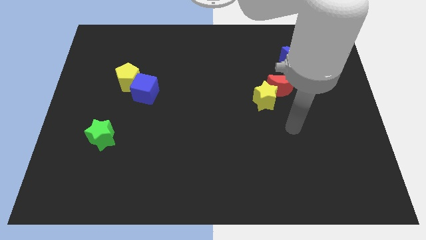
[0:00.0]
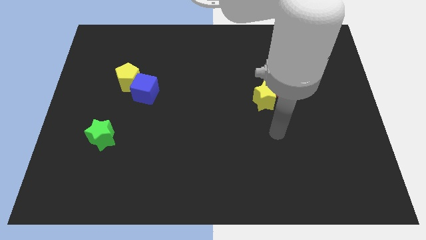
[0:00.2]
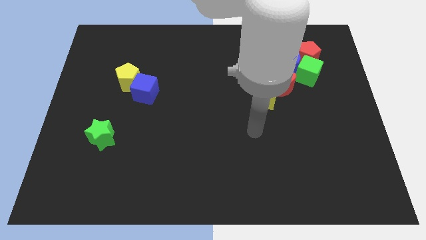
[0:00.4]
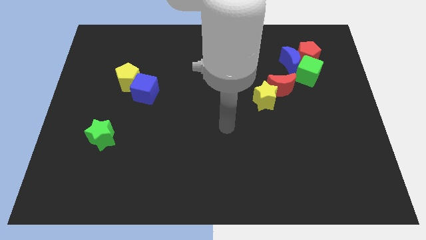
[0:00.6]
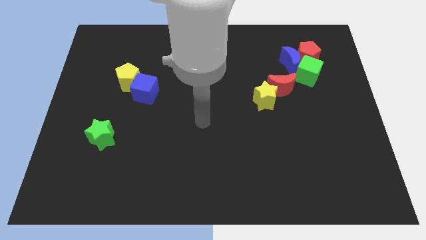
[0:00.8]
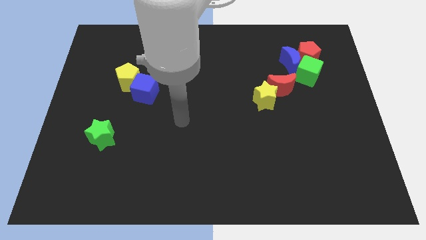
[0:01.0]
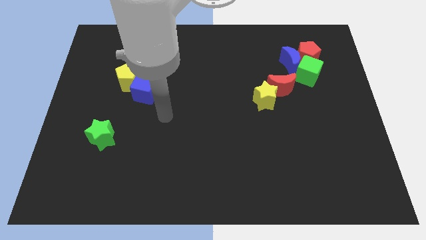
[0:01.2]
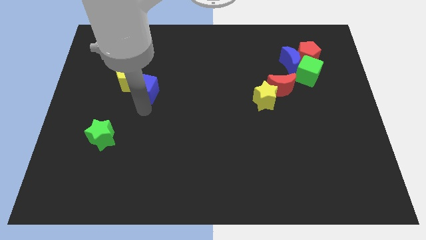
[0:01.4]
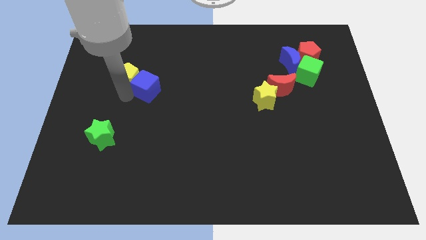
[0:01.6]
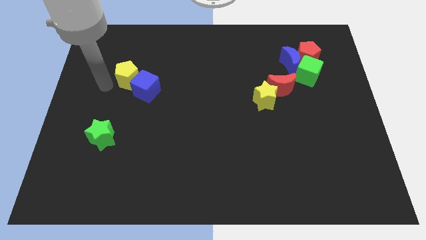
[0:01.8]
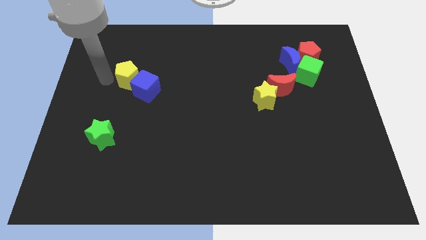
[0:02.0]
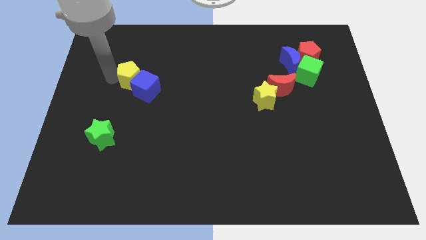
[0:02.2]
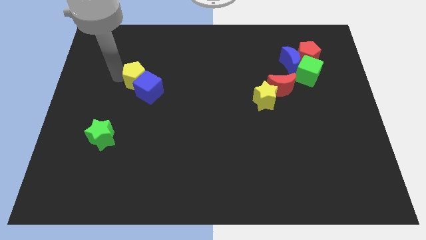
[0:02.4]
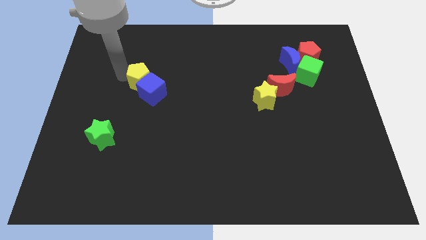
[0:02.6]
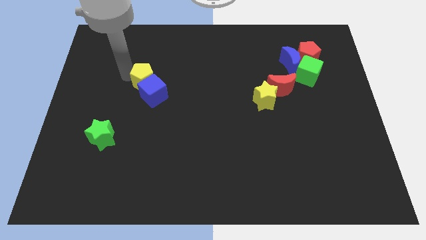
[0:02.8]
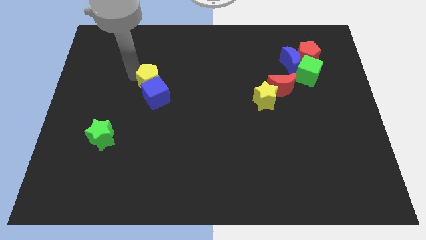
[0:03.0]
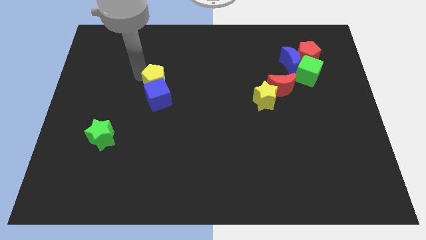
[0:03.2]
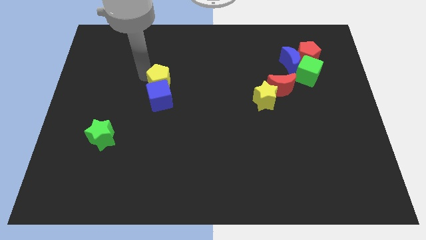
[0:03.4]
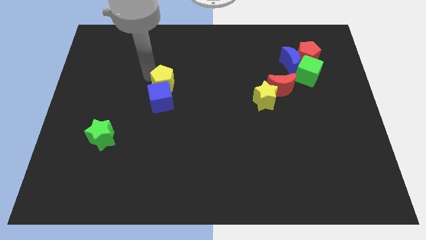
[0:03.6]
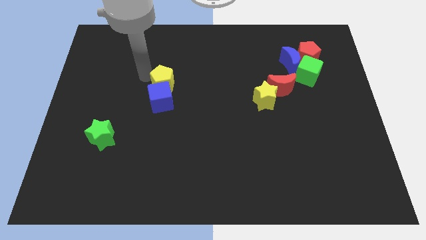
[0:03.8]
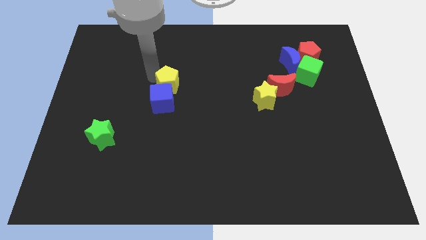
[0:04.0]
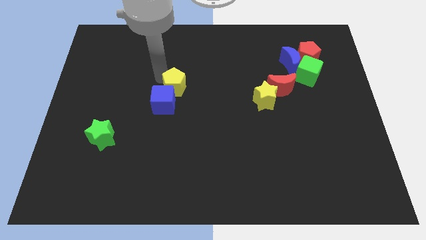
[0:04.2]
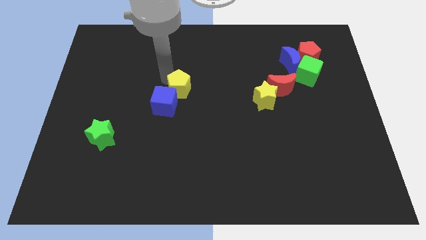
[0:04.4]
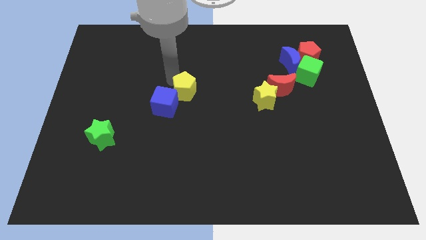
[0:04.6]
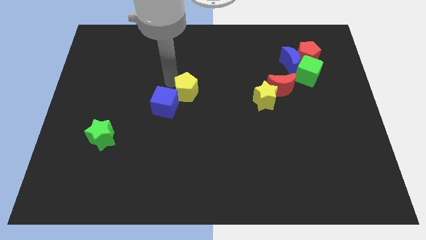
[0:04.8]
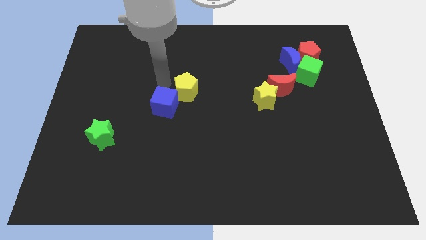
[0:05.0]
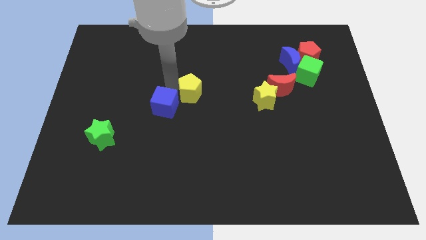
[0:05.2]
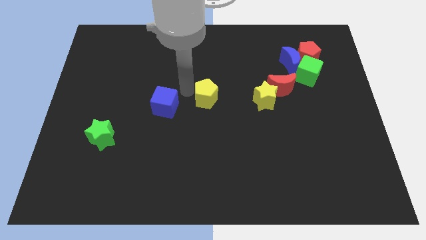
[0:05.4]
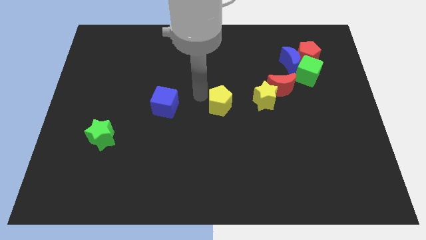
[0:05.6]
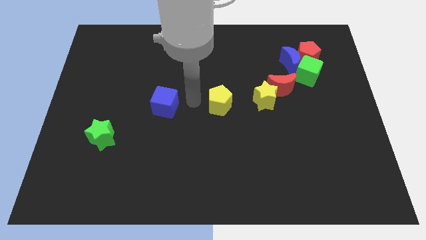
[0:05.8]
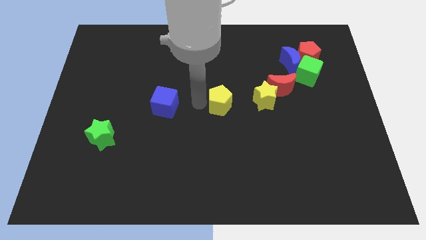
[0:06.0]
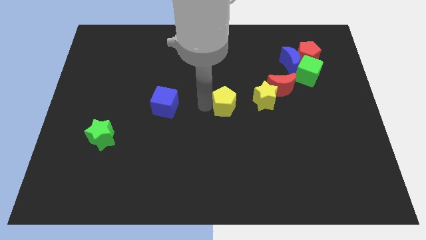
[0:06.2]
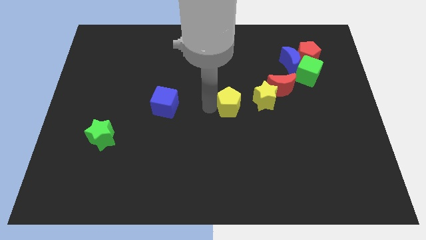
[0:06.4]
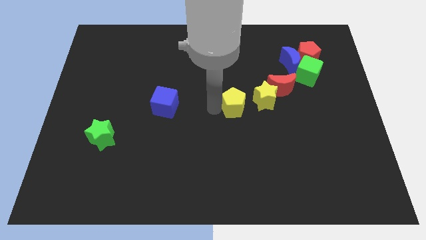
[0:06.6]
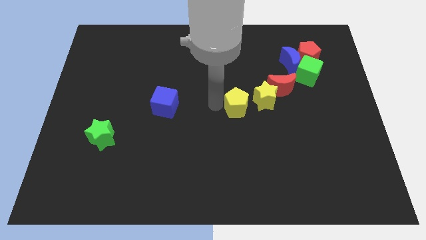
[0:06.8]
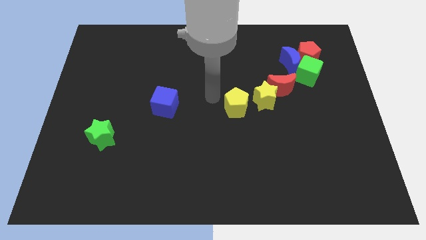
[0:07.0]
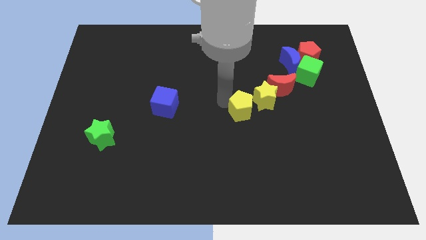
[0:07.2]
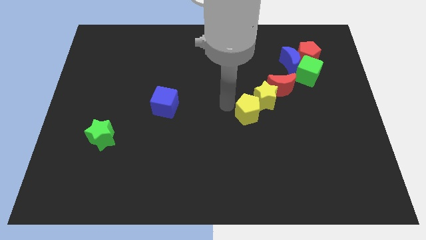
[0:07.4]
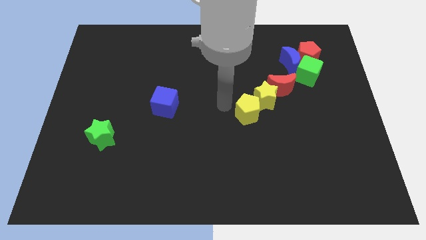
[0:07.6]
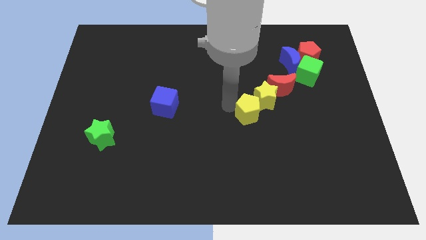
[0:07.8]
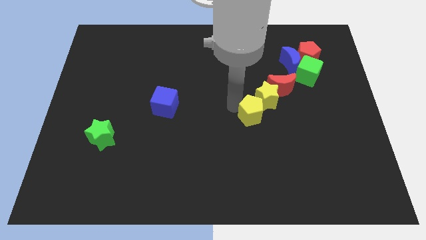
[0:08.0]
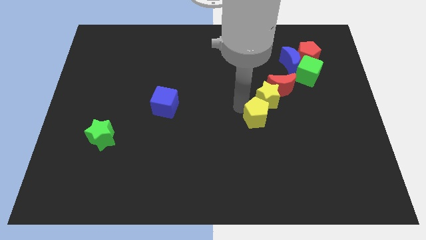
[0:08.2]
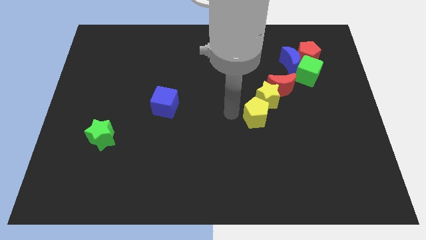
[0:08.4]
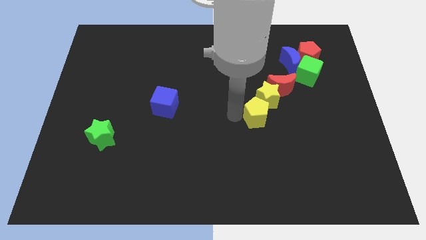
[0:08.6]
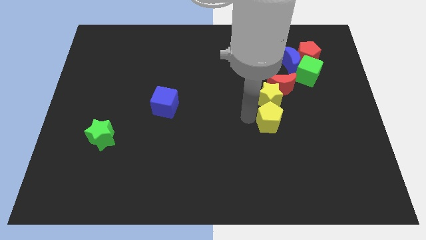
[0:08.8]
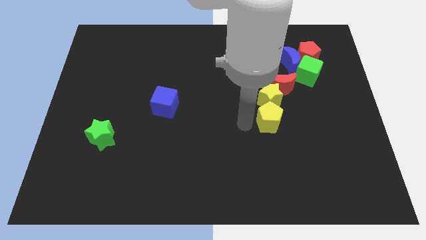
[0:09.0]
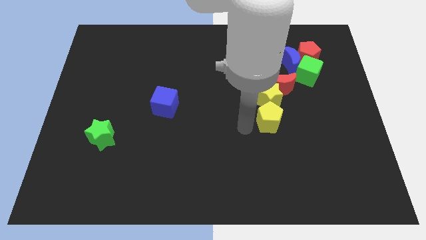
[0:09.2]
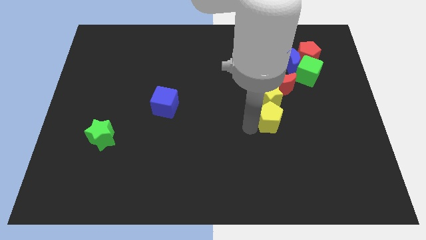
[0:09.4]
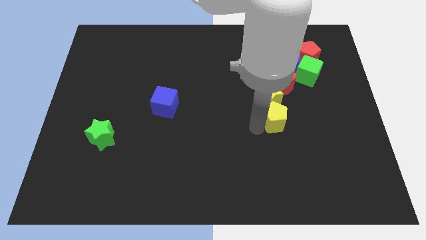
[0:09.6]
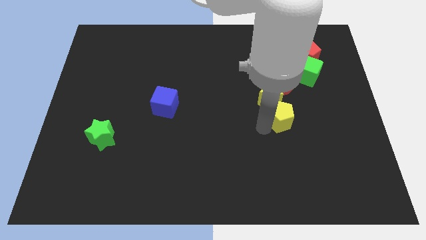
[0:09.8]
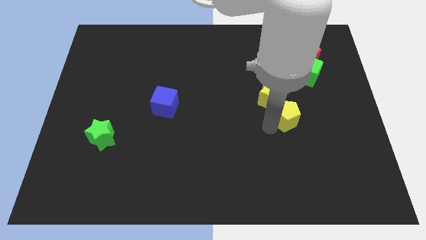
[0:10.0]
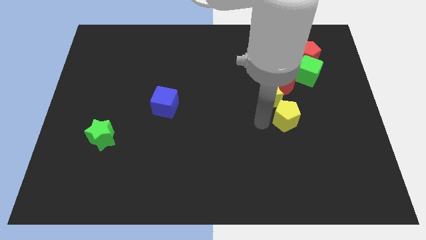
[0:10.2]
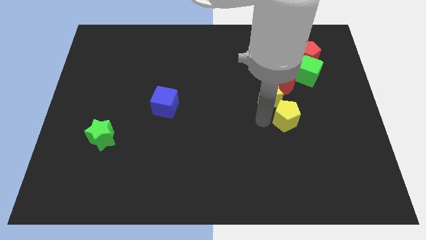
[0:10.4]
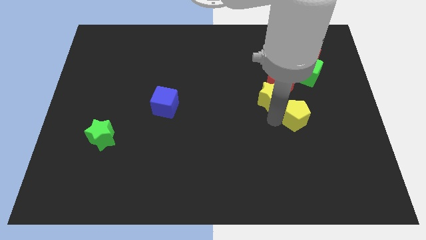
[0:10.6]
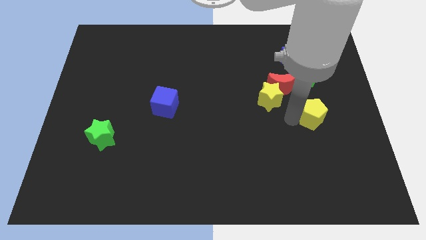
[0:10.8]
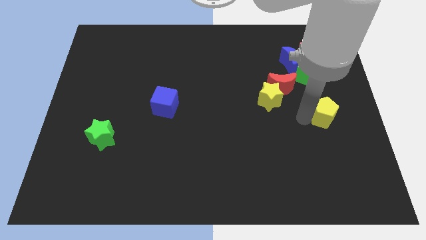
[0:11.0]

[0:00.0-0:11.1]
slide the yellow pentagon to the right side of the board
